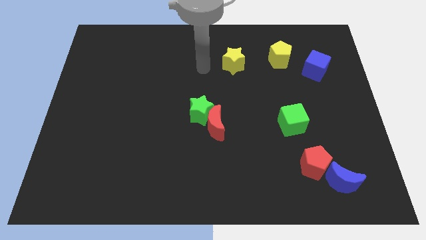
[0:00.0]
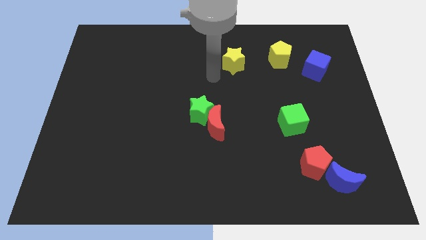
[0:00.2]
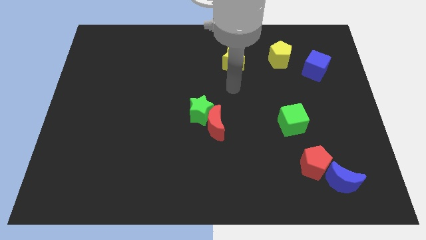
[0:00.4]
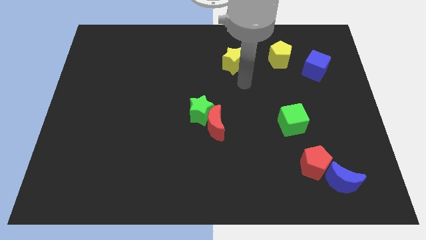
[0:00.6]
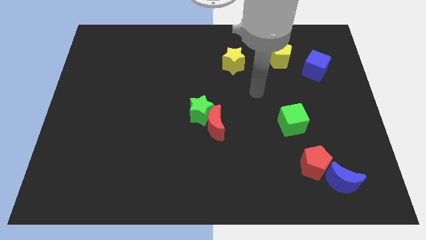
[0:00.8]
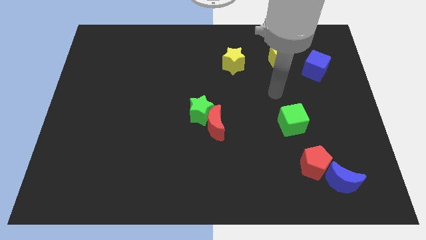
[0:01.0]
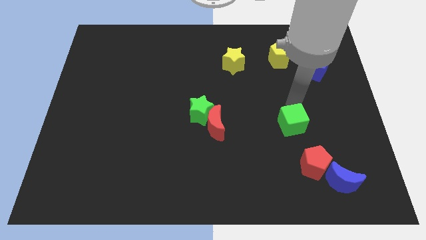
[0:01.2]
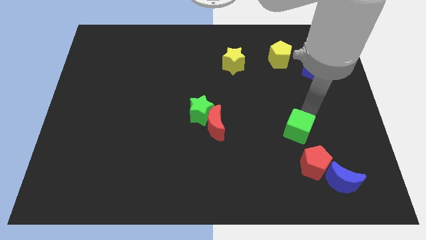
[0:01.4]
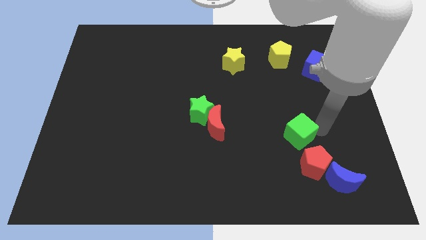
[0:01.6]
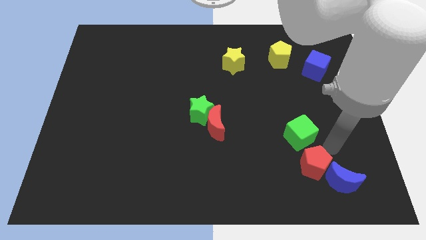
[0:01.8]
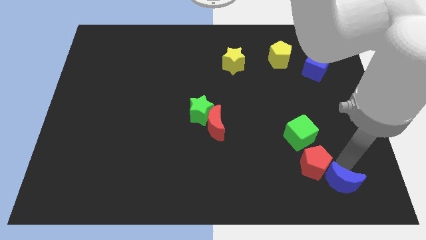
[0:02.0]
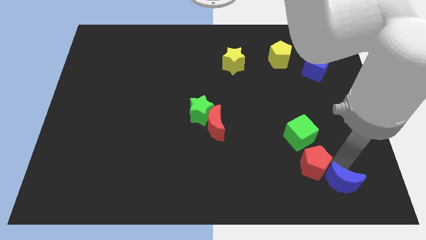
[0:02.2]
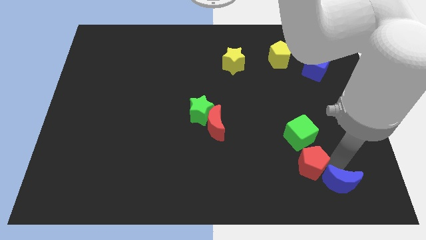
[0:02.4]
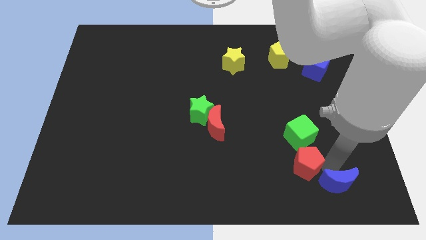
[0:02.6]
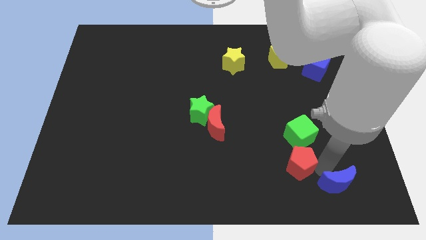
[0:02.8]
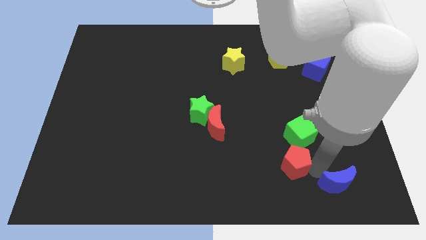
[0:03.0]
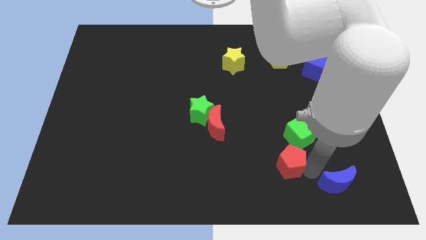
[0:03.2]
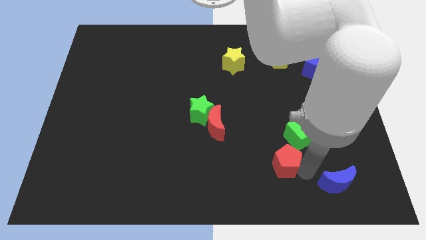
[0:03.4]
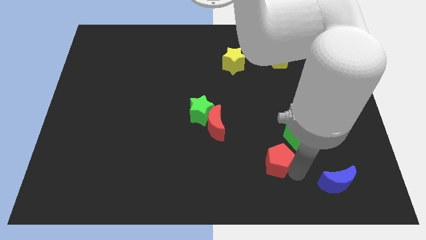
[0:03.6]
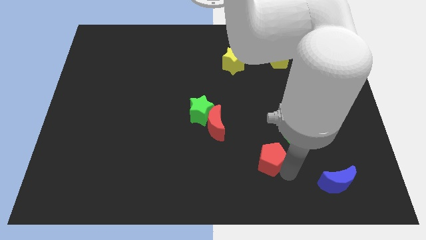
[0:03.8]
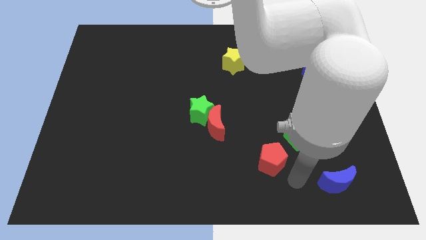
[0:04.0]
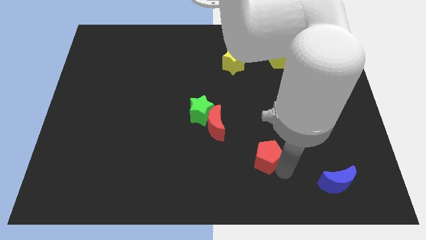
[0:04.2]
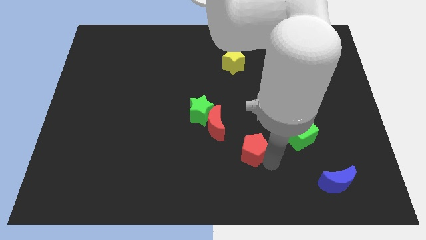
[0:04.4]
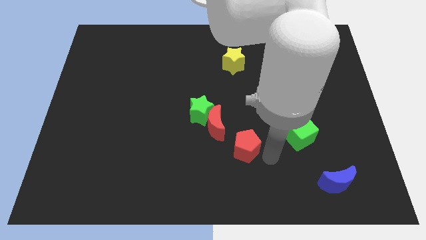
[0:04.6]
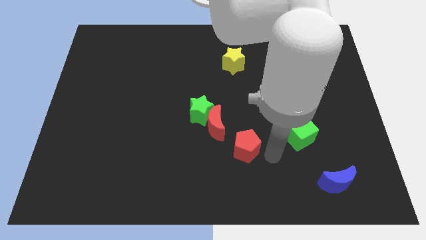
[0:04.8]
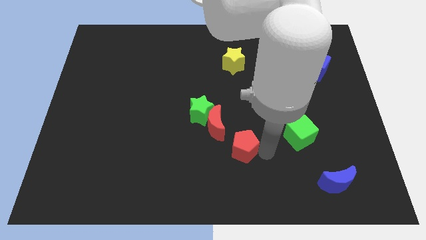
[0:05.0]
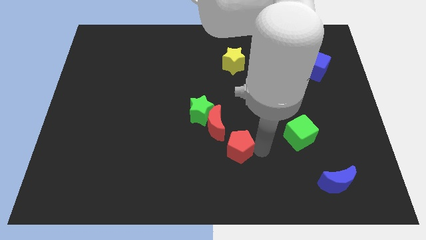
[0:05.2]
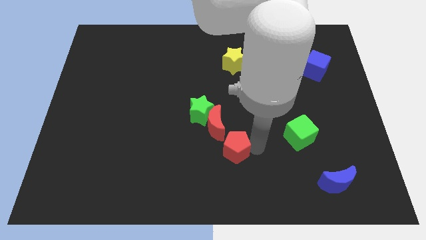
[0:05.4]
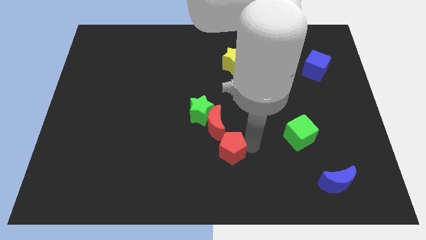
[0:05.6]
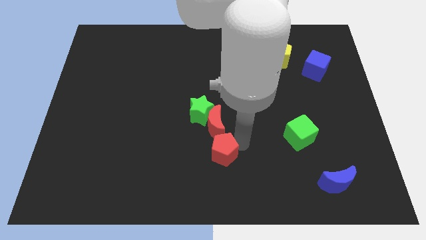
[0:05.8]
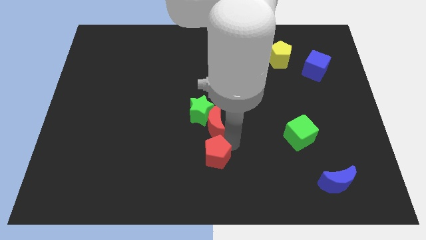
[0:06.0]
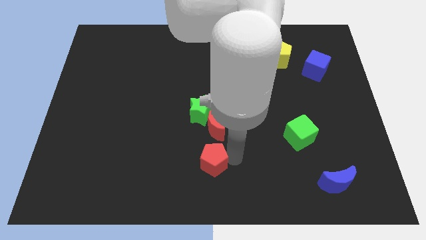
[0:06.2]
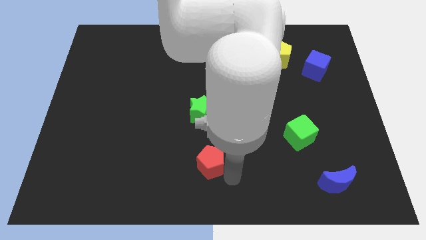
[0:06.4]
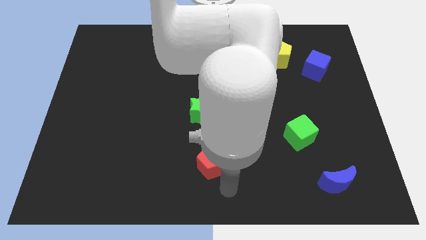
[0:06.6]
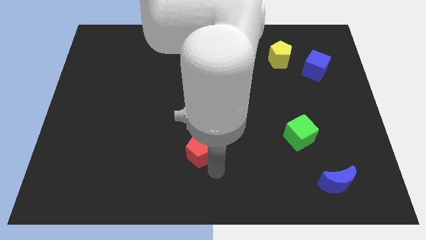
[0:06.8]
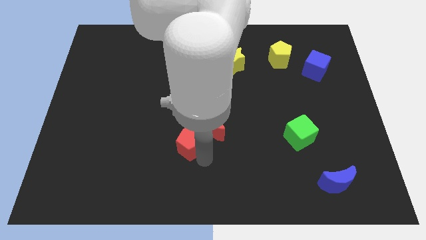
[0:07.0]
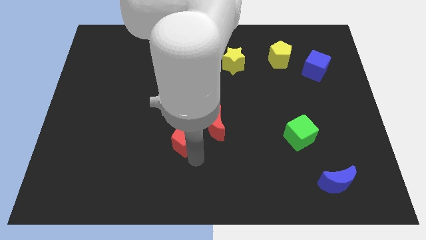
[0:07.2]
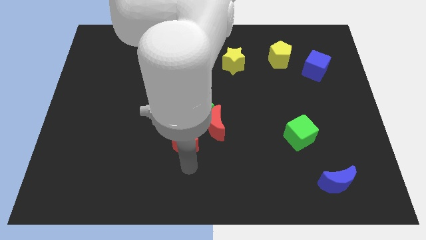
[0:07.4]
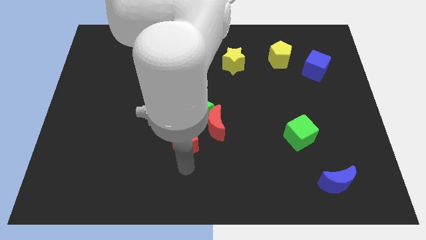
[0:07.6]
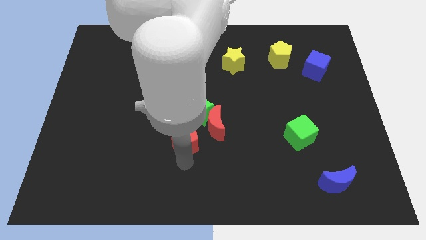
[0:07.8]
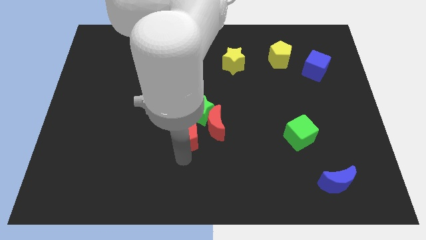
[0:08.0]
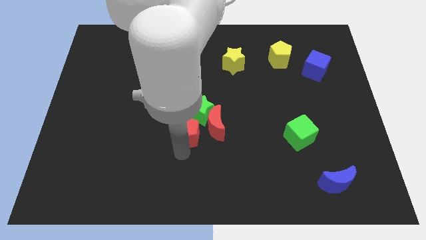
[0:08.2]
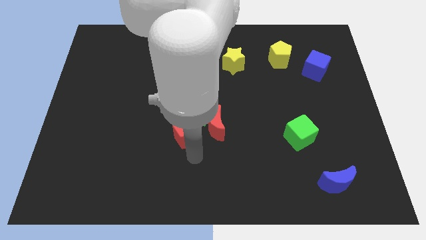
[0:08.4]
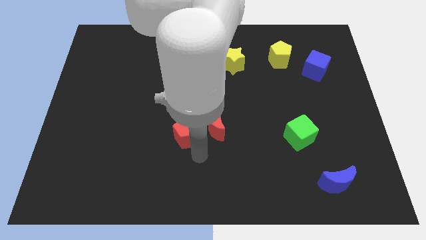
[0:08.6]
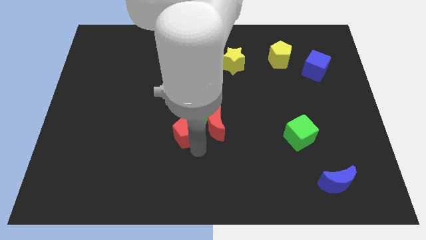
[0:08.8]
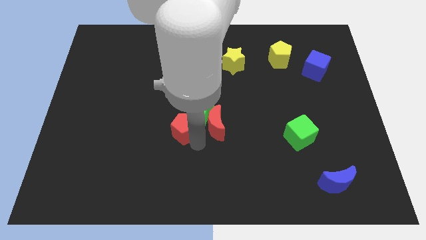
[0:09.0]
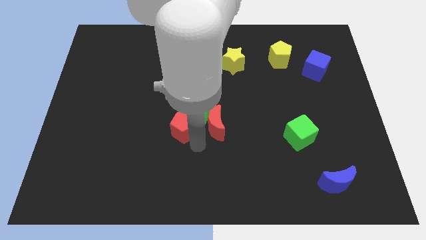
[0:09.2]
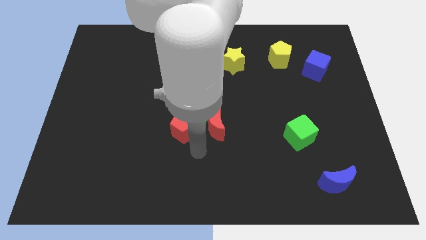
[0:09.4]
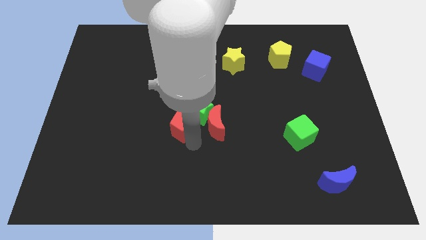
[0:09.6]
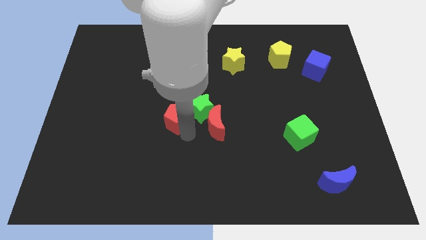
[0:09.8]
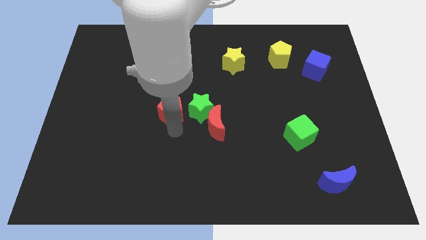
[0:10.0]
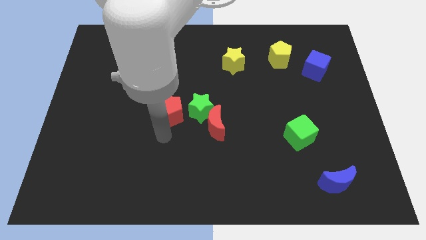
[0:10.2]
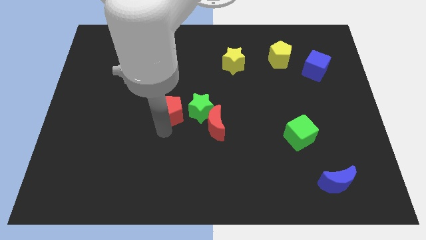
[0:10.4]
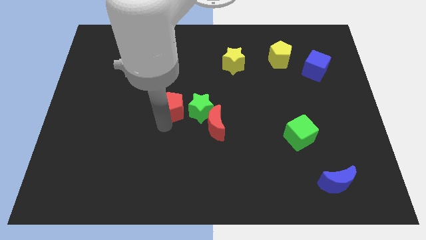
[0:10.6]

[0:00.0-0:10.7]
move the red pentagon to the top left side of the green star

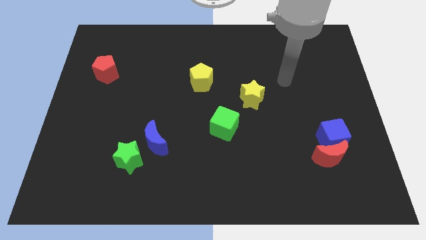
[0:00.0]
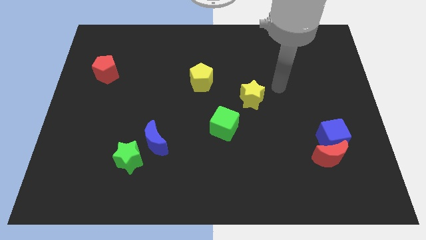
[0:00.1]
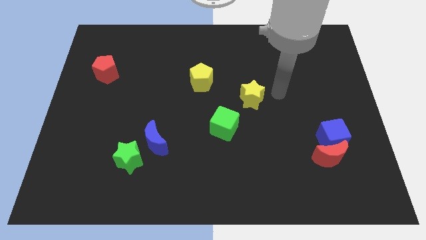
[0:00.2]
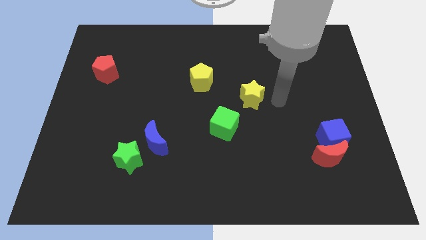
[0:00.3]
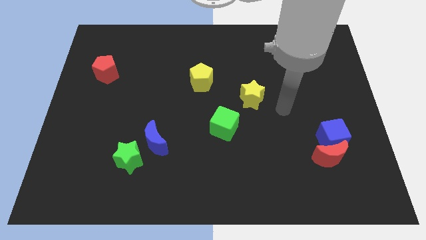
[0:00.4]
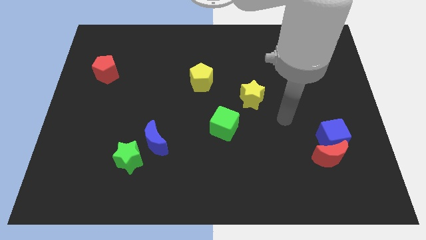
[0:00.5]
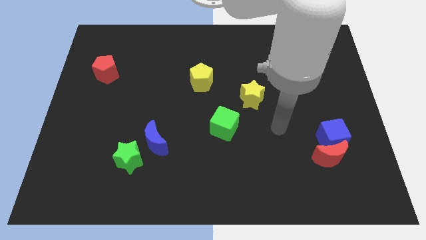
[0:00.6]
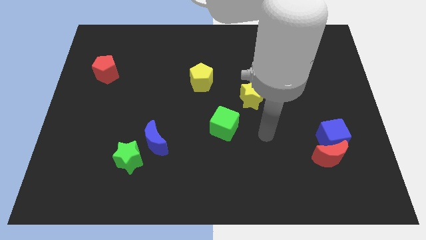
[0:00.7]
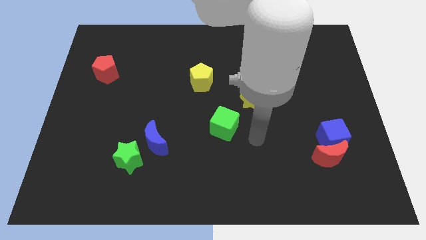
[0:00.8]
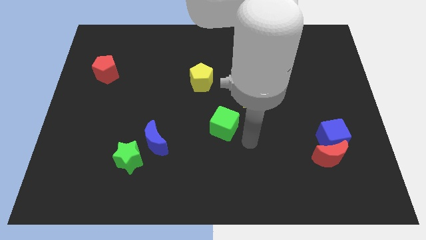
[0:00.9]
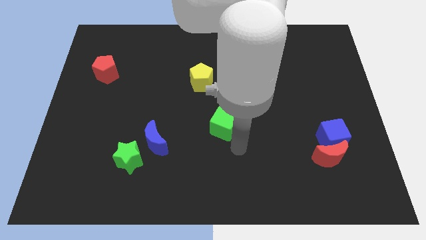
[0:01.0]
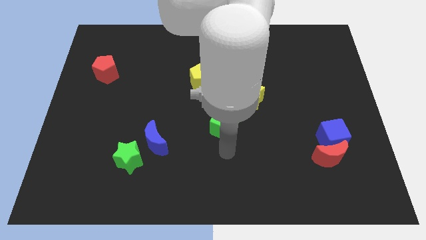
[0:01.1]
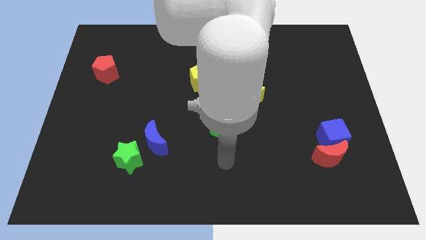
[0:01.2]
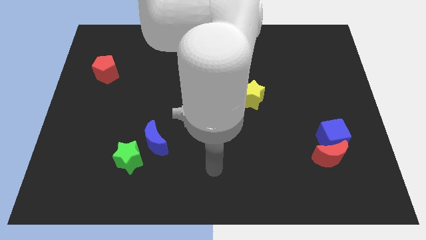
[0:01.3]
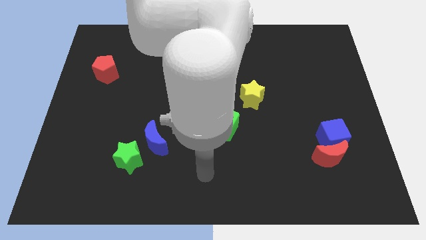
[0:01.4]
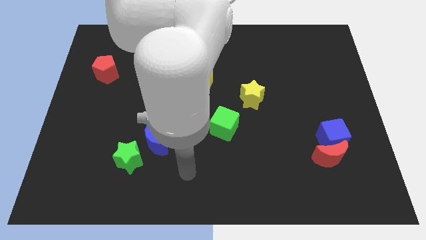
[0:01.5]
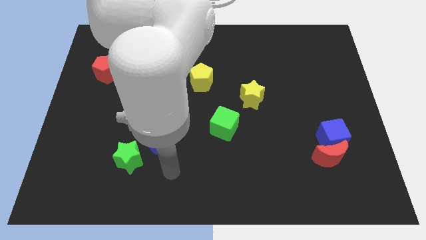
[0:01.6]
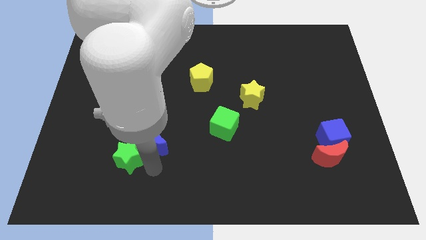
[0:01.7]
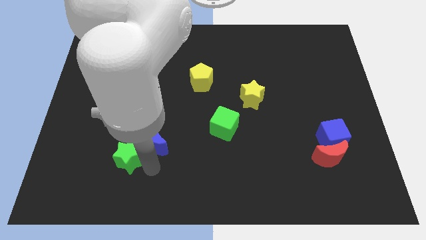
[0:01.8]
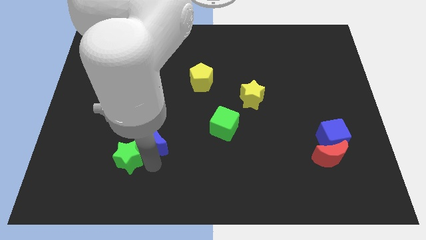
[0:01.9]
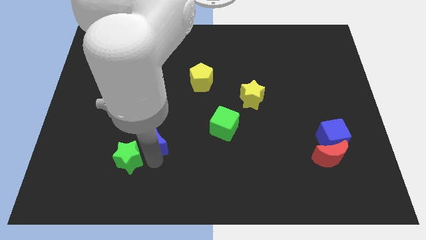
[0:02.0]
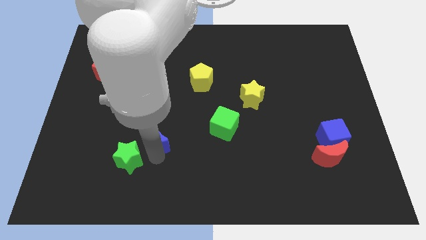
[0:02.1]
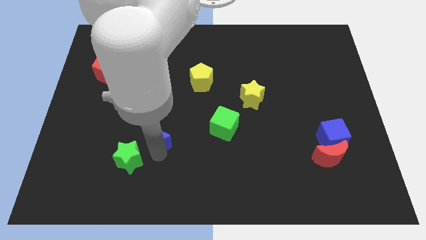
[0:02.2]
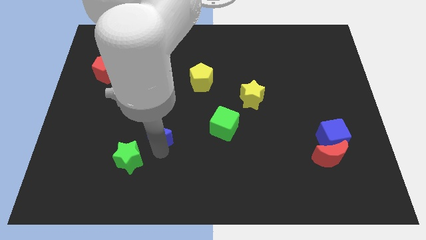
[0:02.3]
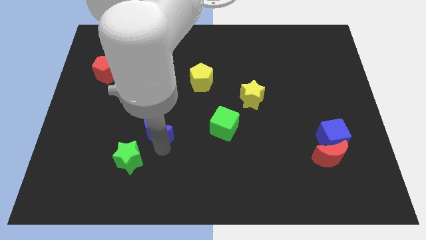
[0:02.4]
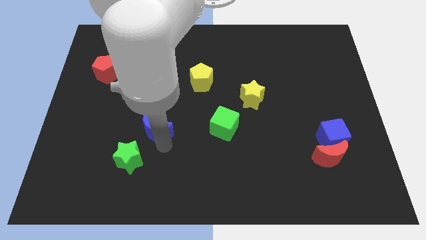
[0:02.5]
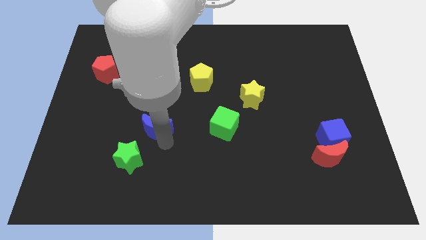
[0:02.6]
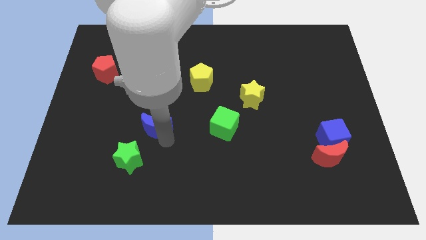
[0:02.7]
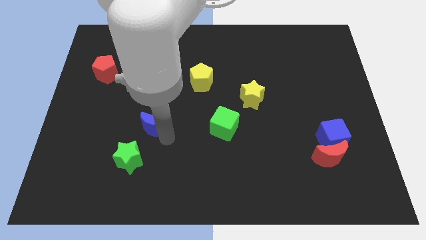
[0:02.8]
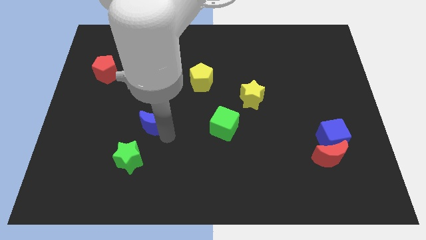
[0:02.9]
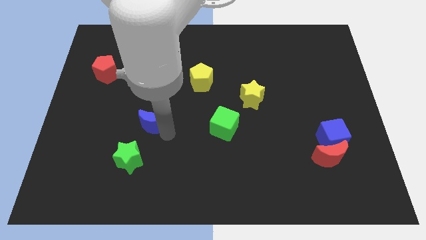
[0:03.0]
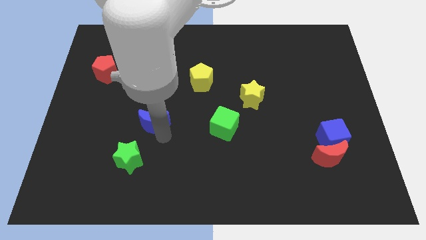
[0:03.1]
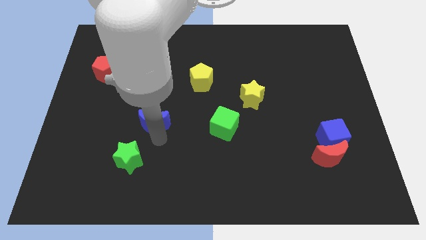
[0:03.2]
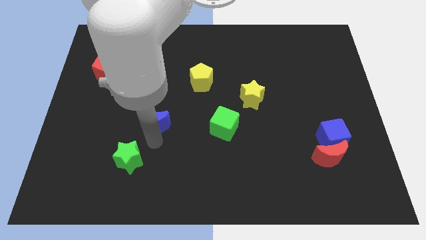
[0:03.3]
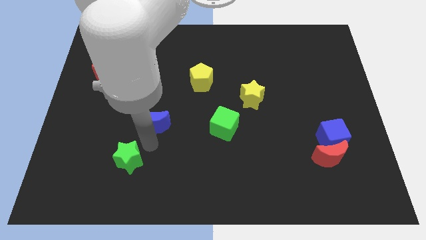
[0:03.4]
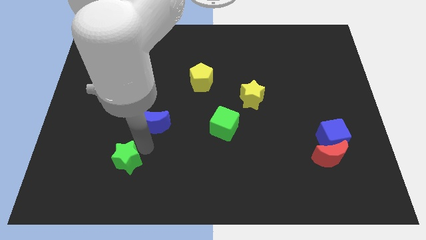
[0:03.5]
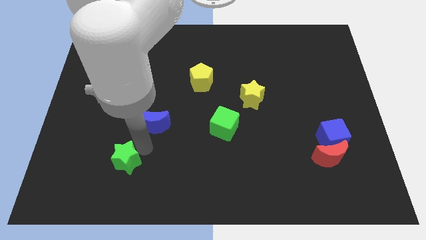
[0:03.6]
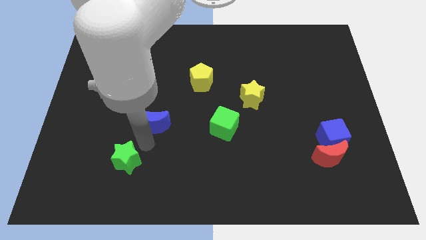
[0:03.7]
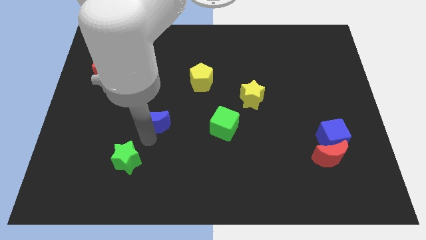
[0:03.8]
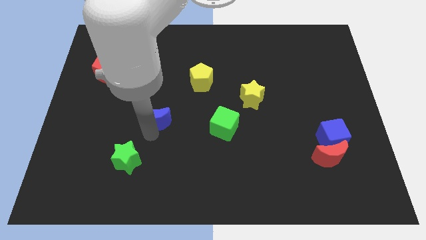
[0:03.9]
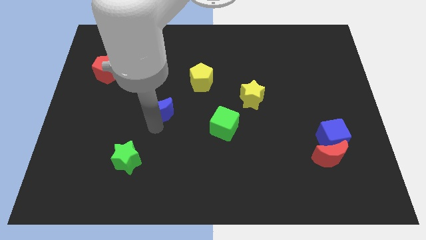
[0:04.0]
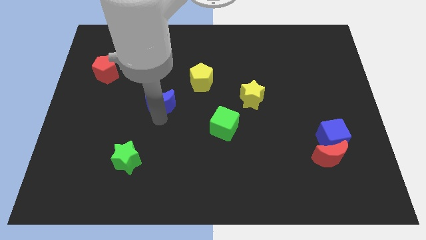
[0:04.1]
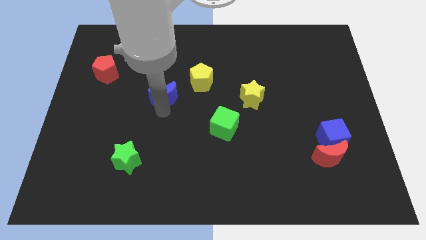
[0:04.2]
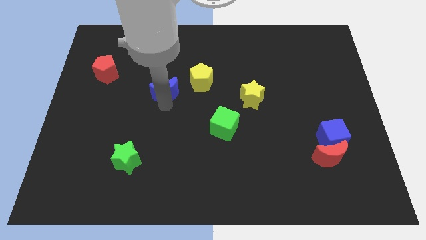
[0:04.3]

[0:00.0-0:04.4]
slide the blue moon to the left side of the yellow pentagon
